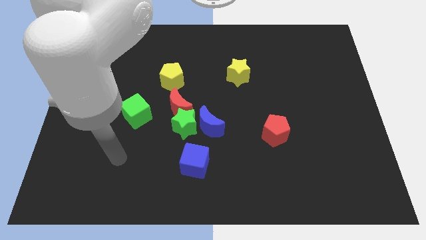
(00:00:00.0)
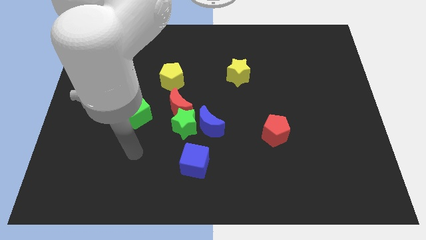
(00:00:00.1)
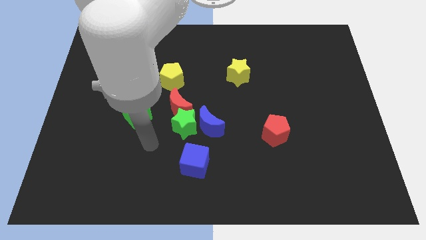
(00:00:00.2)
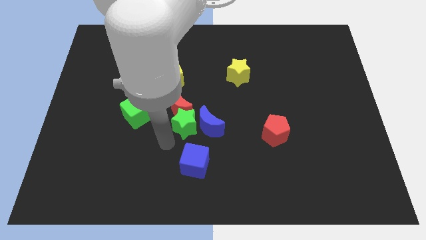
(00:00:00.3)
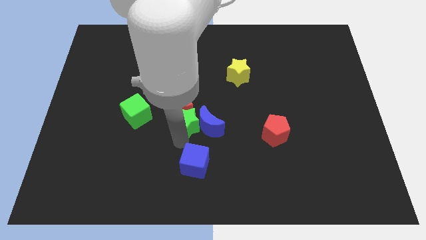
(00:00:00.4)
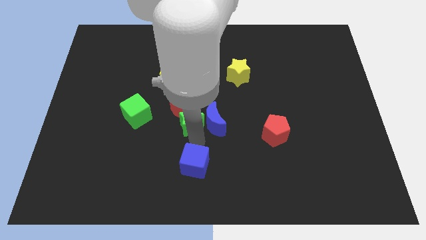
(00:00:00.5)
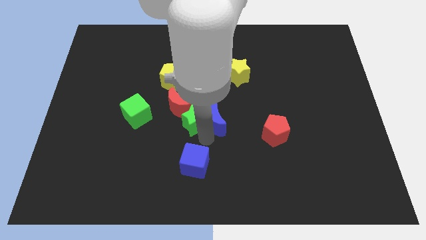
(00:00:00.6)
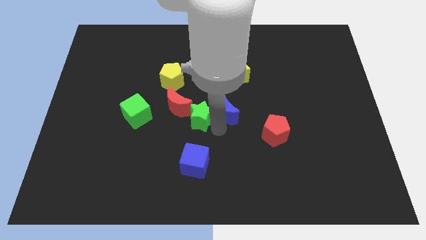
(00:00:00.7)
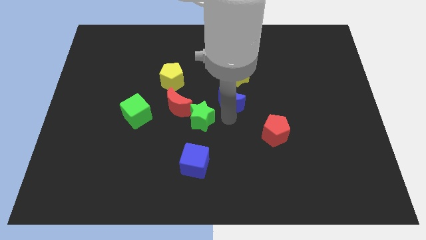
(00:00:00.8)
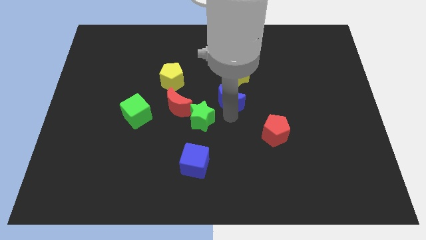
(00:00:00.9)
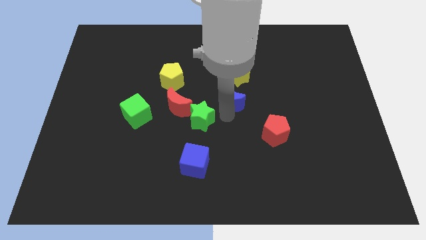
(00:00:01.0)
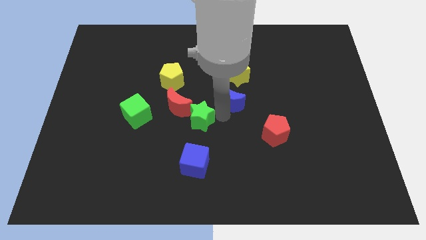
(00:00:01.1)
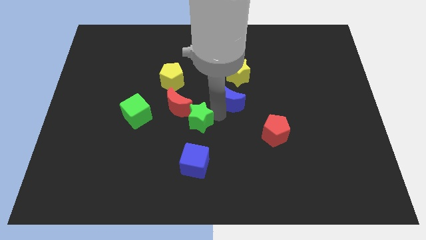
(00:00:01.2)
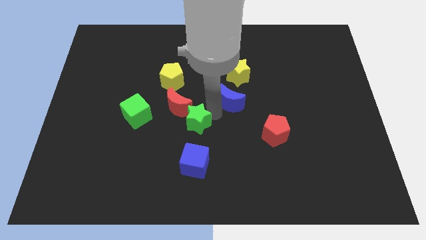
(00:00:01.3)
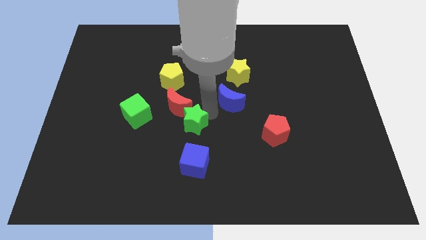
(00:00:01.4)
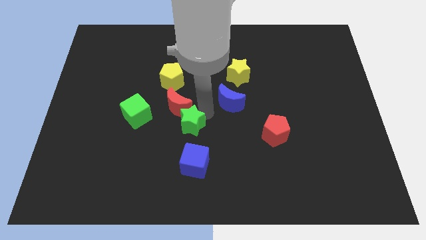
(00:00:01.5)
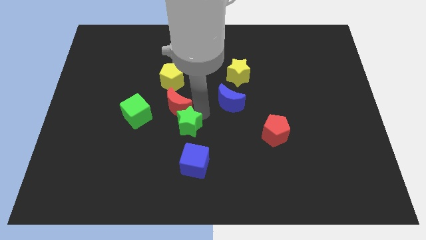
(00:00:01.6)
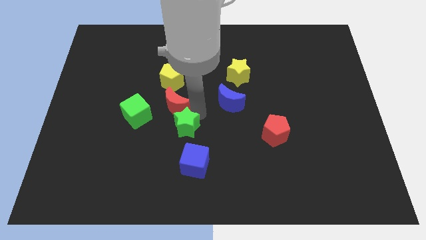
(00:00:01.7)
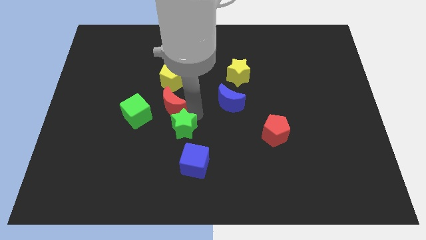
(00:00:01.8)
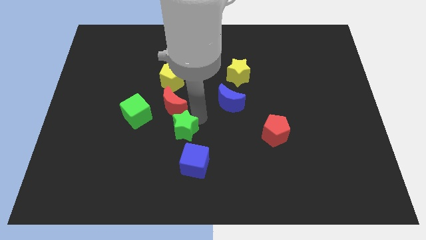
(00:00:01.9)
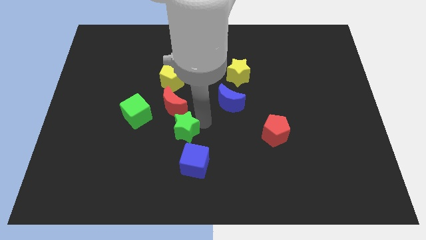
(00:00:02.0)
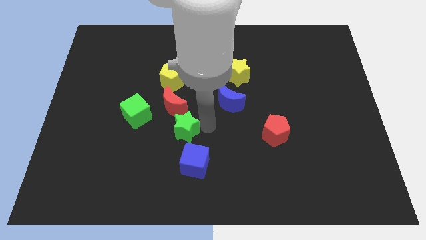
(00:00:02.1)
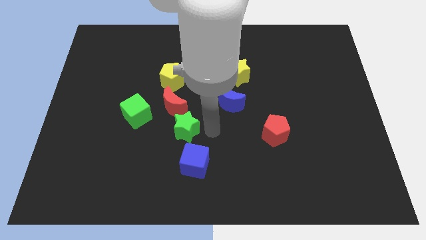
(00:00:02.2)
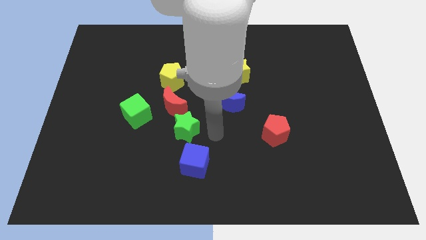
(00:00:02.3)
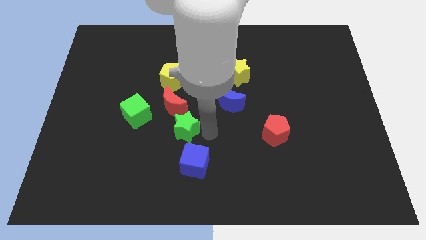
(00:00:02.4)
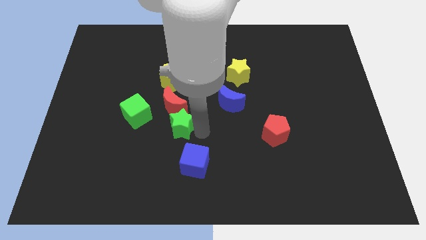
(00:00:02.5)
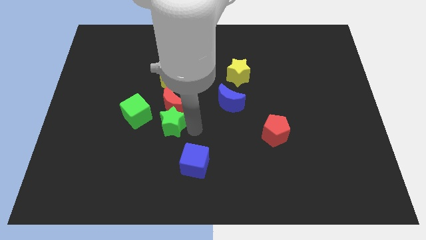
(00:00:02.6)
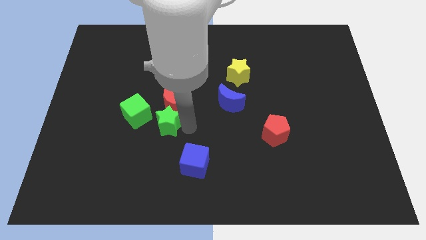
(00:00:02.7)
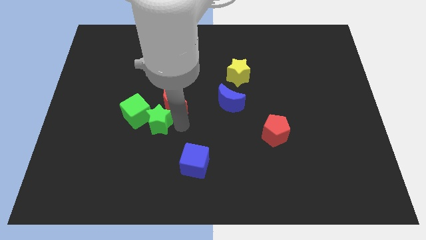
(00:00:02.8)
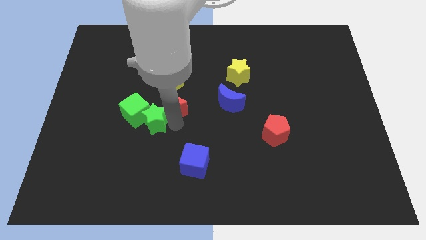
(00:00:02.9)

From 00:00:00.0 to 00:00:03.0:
separate the green star from the blue moon, red moon, and blue cube

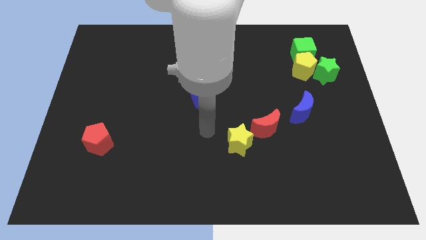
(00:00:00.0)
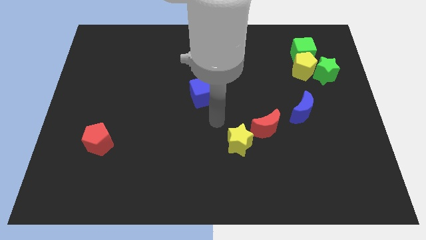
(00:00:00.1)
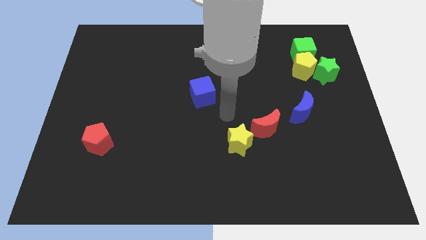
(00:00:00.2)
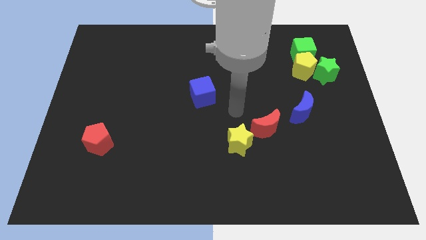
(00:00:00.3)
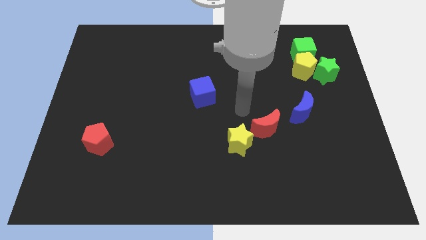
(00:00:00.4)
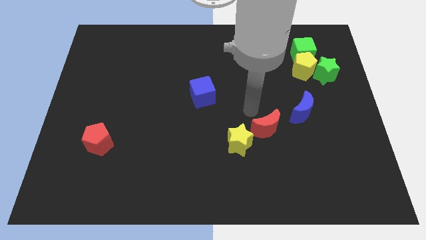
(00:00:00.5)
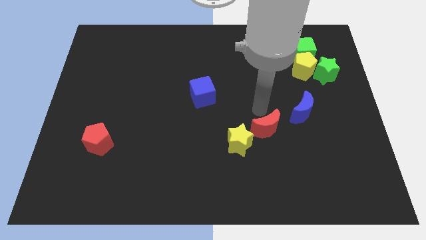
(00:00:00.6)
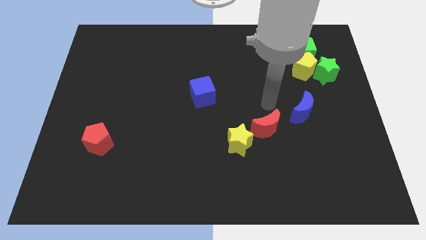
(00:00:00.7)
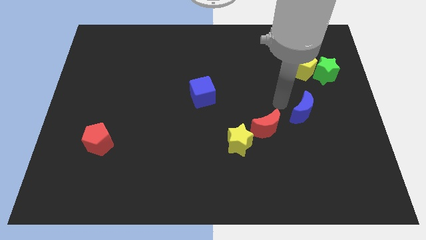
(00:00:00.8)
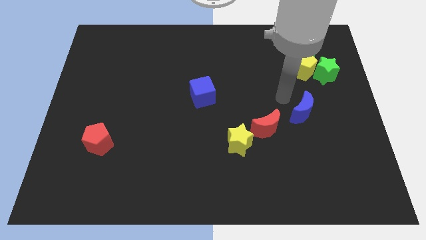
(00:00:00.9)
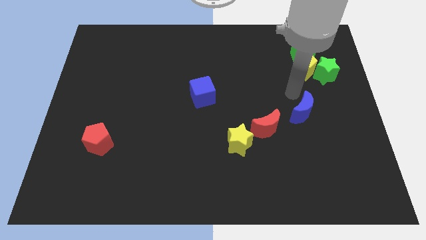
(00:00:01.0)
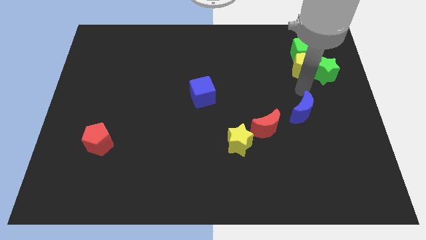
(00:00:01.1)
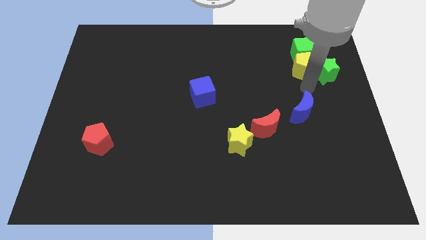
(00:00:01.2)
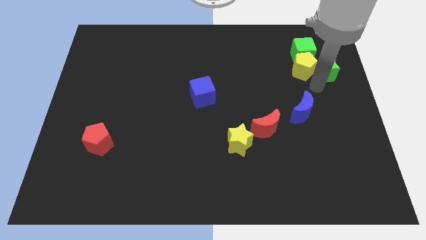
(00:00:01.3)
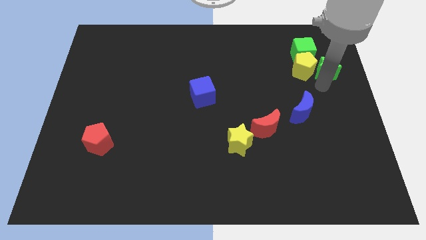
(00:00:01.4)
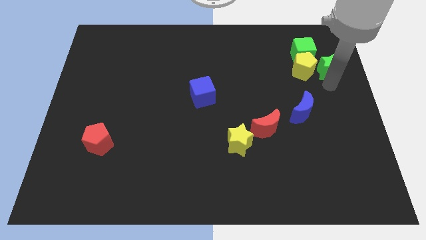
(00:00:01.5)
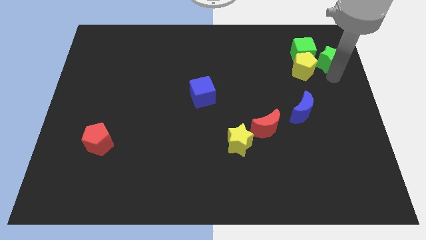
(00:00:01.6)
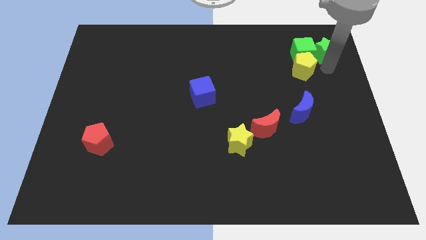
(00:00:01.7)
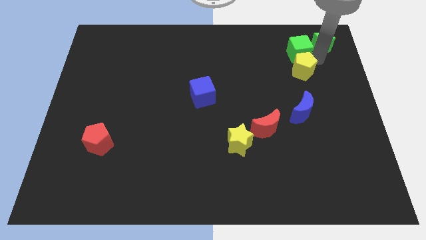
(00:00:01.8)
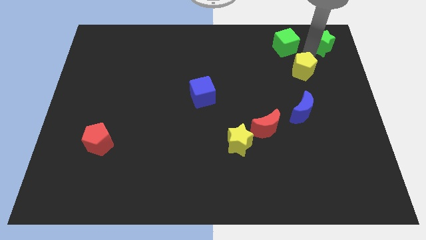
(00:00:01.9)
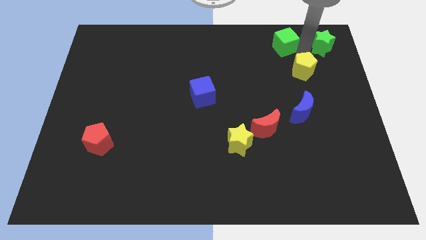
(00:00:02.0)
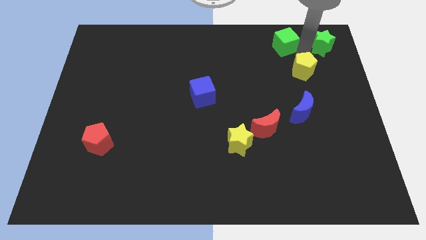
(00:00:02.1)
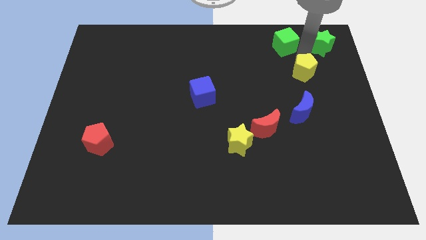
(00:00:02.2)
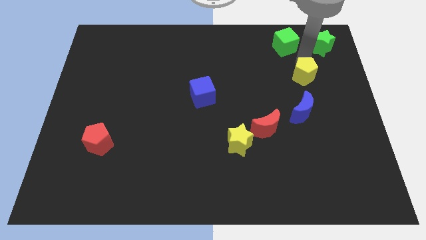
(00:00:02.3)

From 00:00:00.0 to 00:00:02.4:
separate the yellow pentagon from the green star and green cube

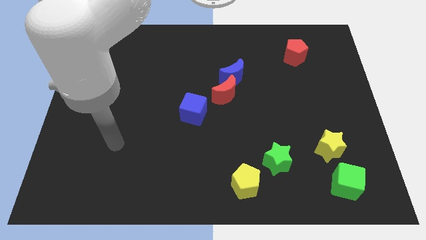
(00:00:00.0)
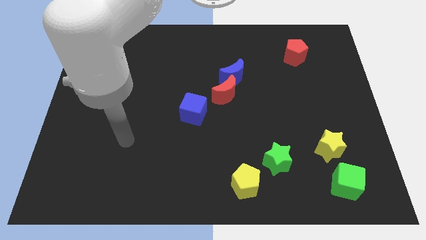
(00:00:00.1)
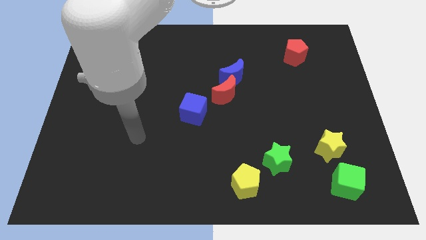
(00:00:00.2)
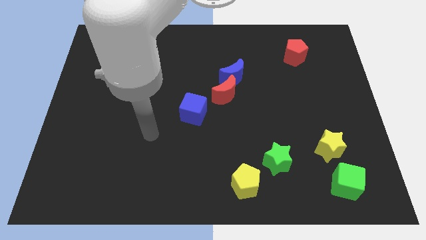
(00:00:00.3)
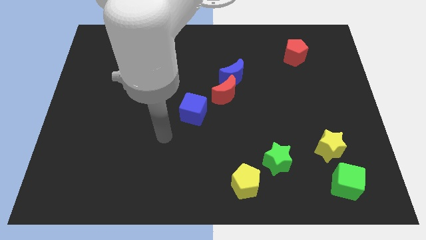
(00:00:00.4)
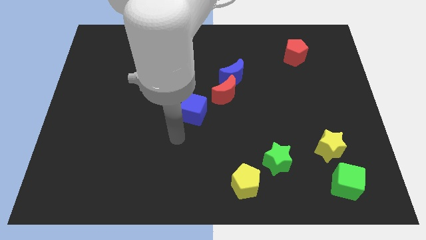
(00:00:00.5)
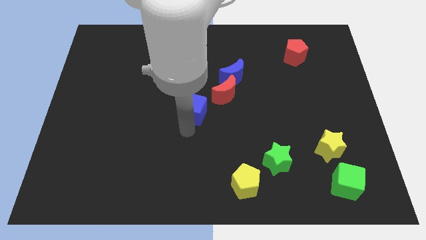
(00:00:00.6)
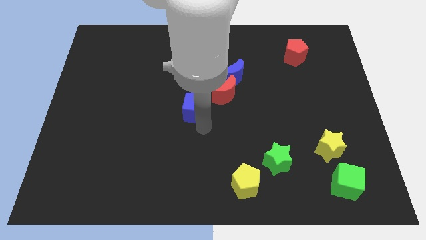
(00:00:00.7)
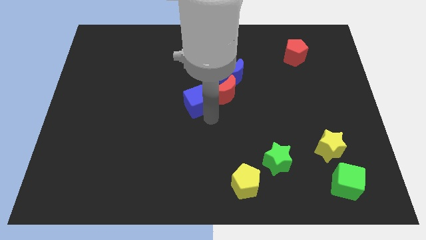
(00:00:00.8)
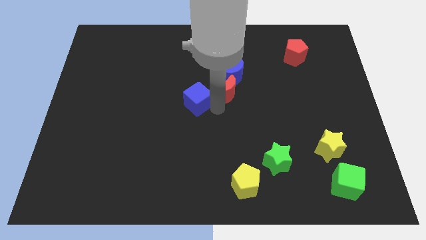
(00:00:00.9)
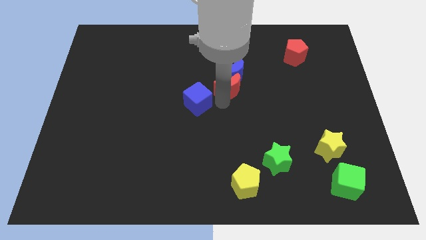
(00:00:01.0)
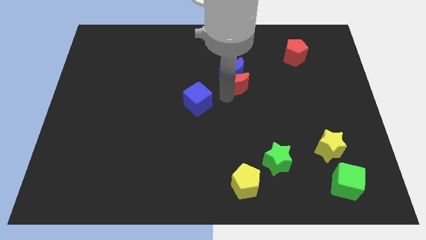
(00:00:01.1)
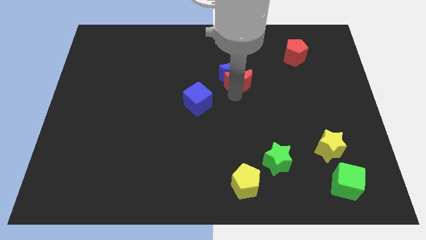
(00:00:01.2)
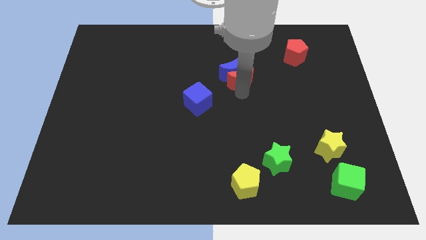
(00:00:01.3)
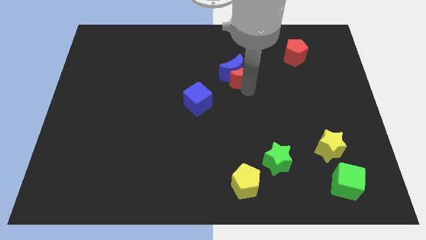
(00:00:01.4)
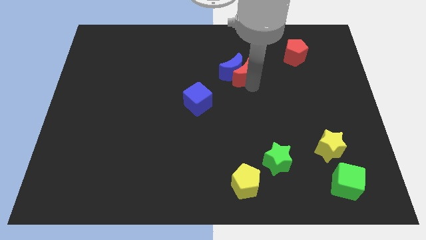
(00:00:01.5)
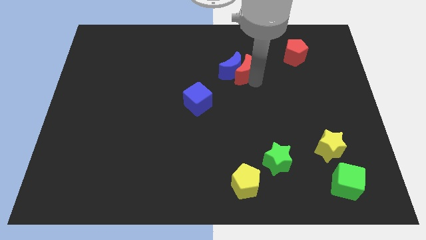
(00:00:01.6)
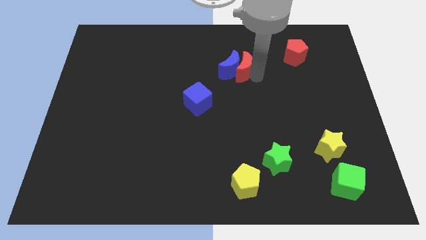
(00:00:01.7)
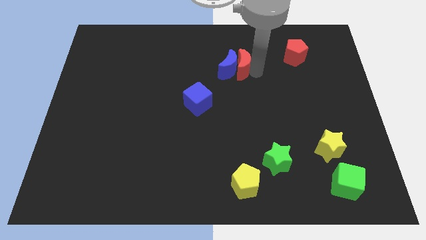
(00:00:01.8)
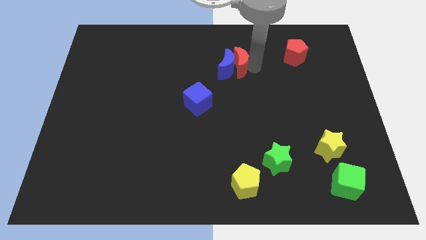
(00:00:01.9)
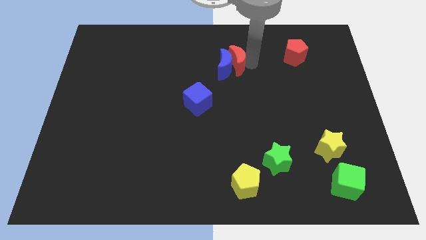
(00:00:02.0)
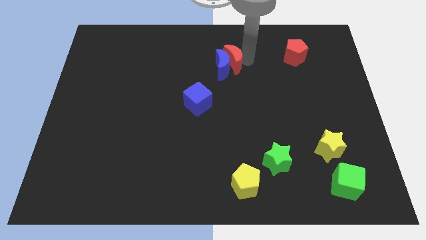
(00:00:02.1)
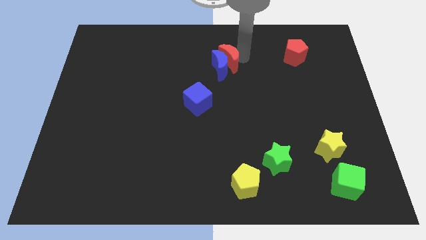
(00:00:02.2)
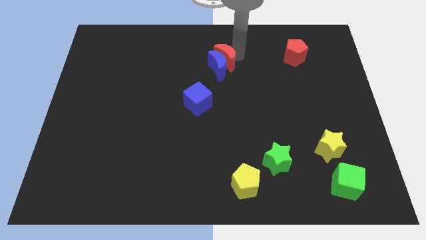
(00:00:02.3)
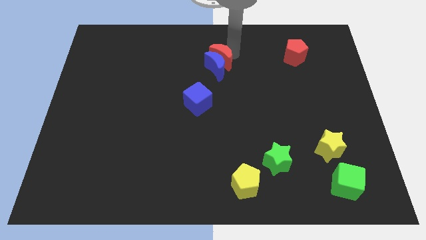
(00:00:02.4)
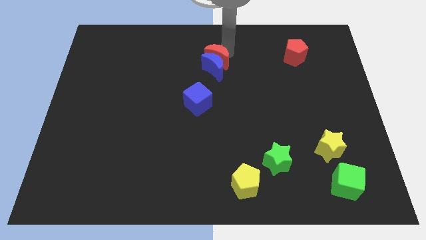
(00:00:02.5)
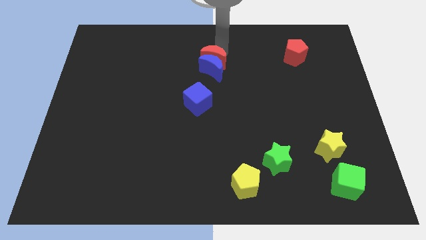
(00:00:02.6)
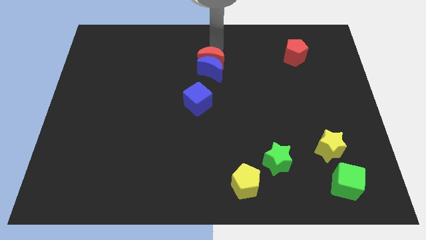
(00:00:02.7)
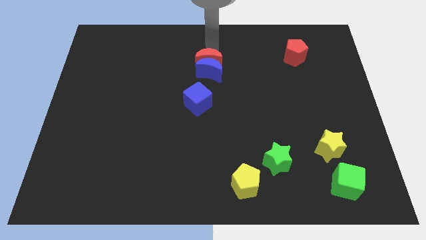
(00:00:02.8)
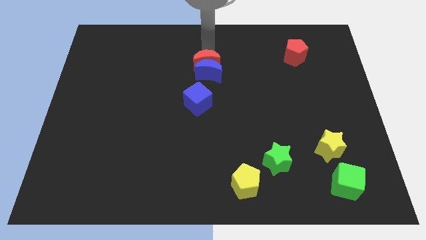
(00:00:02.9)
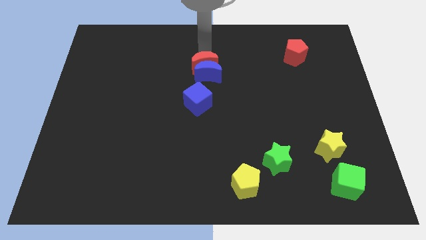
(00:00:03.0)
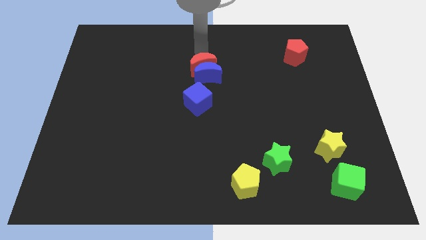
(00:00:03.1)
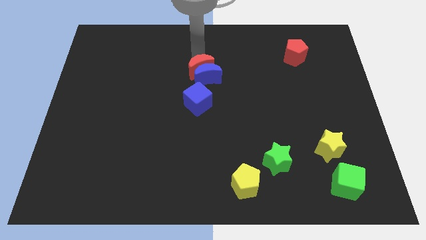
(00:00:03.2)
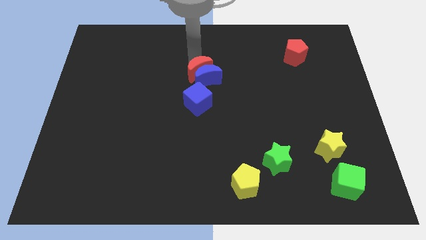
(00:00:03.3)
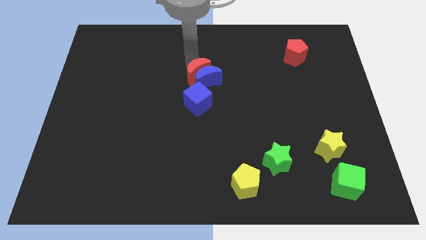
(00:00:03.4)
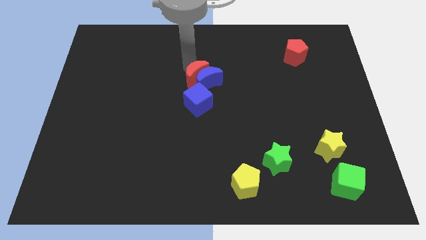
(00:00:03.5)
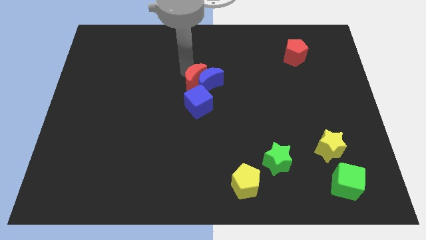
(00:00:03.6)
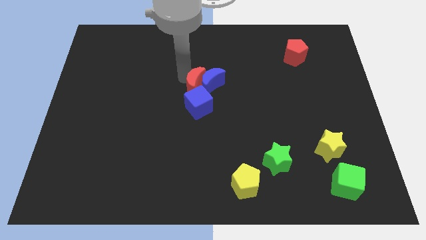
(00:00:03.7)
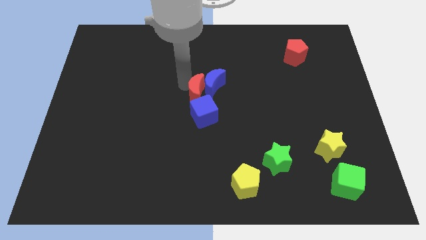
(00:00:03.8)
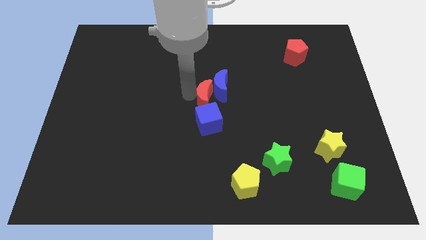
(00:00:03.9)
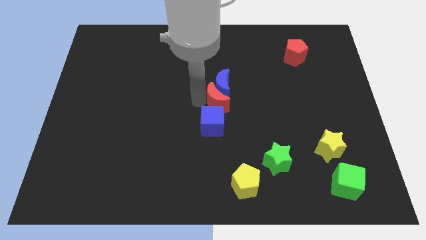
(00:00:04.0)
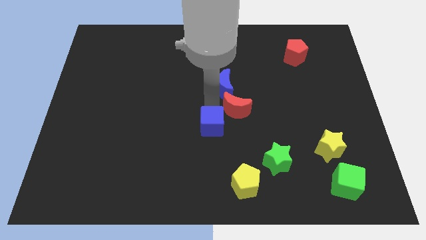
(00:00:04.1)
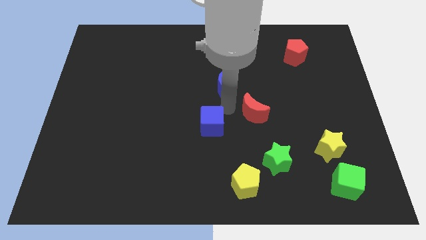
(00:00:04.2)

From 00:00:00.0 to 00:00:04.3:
pull the blue moon apart from the red moon
